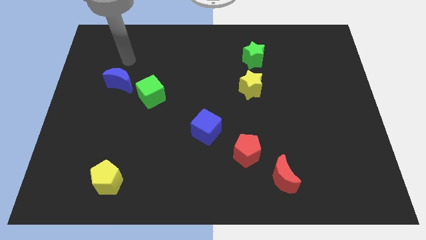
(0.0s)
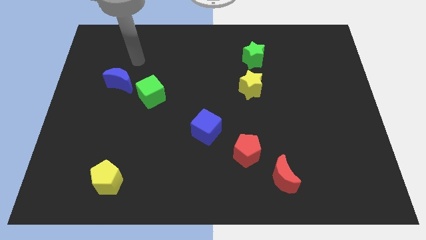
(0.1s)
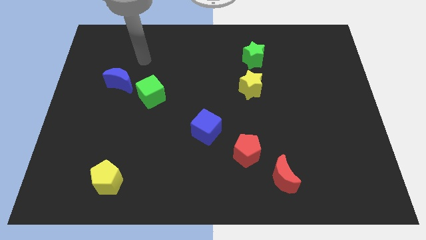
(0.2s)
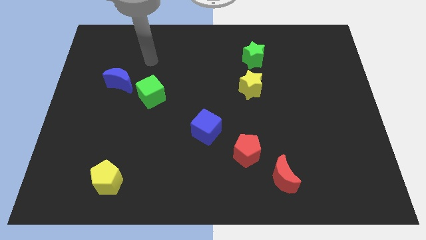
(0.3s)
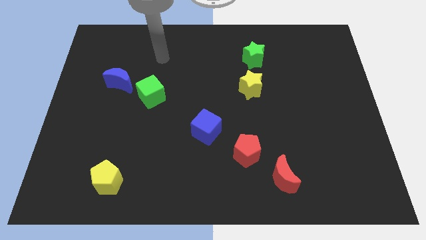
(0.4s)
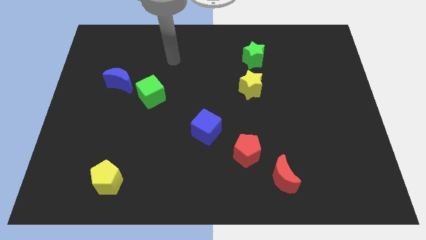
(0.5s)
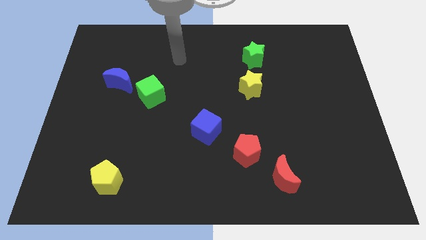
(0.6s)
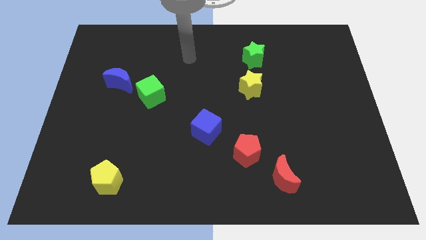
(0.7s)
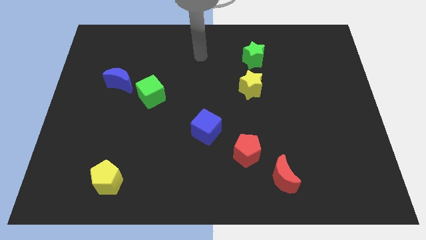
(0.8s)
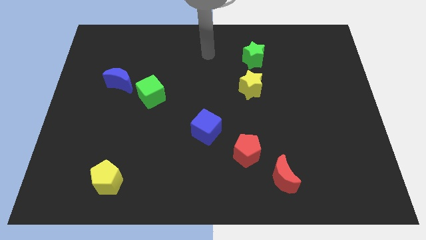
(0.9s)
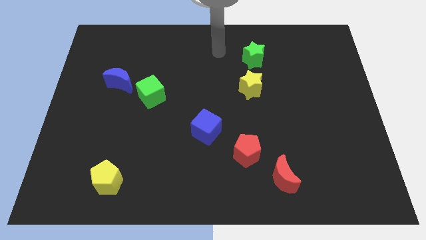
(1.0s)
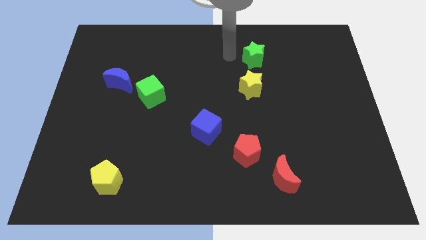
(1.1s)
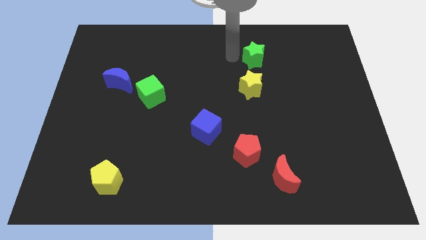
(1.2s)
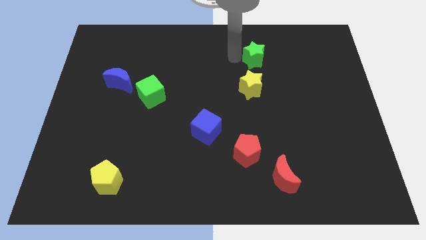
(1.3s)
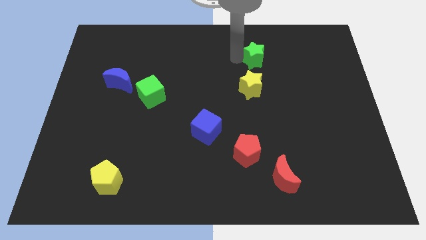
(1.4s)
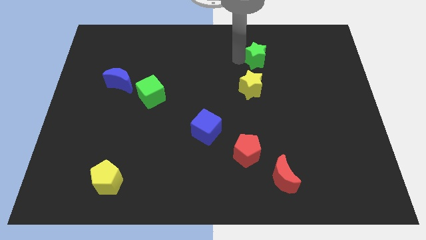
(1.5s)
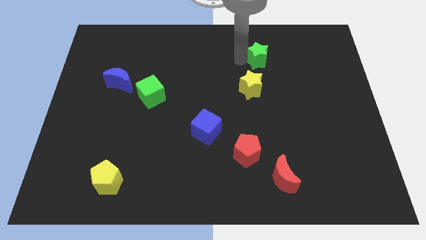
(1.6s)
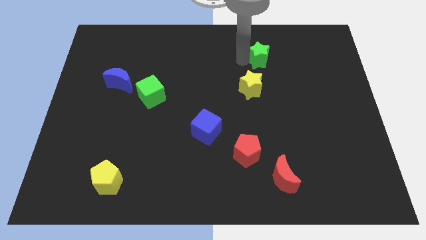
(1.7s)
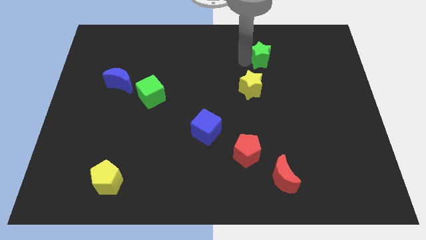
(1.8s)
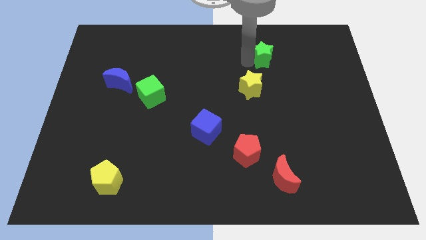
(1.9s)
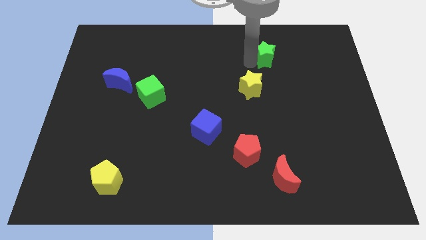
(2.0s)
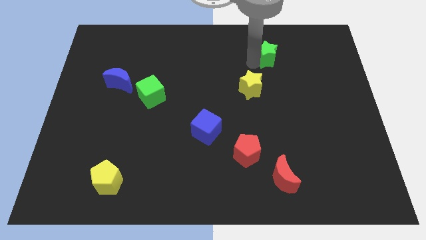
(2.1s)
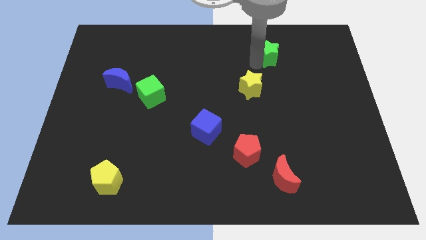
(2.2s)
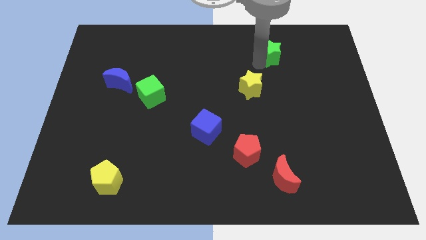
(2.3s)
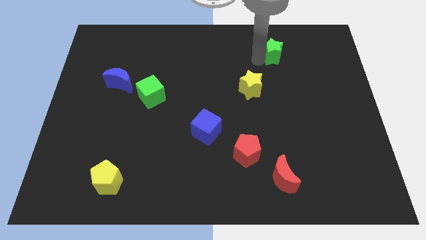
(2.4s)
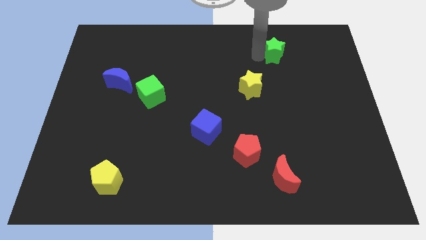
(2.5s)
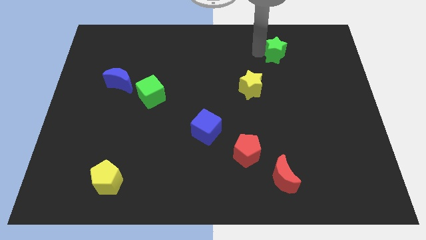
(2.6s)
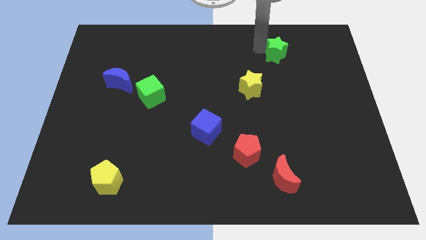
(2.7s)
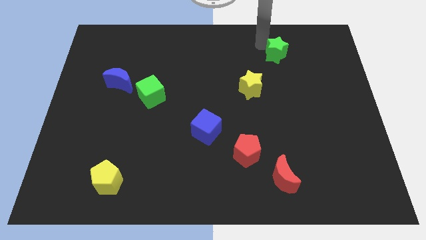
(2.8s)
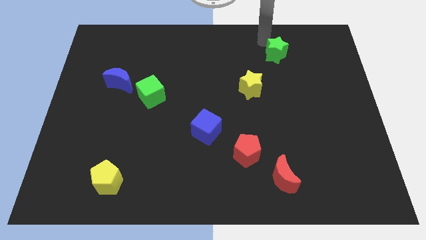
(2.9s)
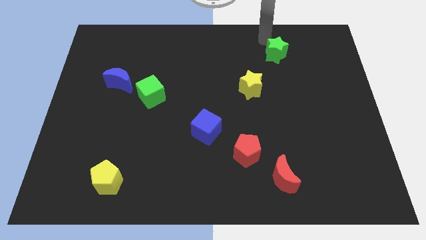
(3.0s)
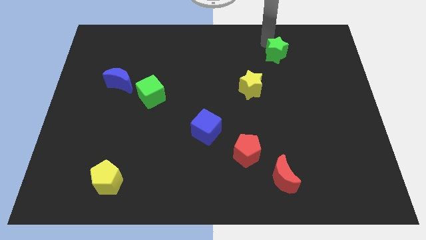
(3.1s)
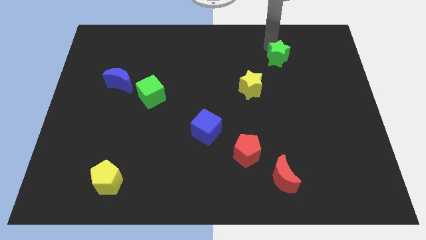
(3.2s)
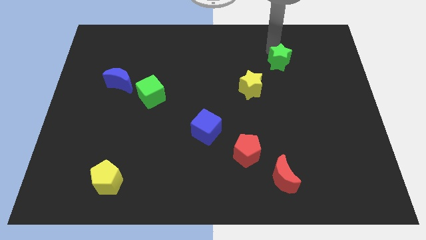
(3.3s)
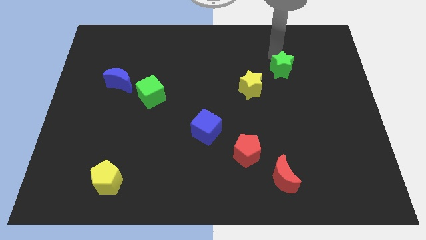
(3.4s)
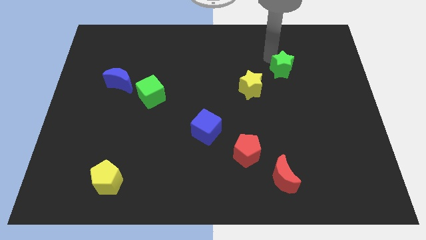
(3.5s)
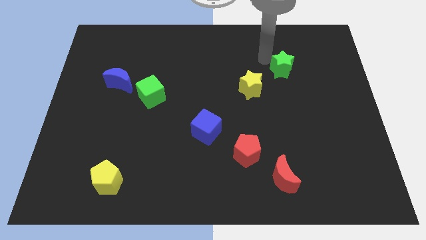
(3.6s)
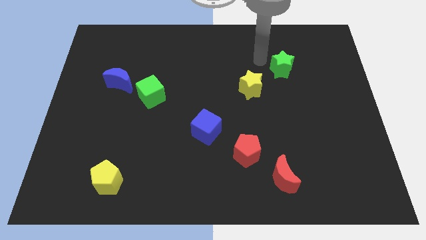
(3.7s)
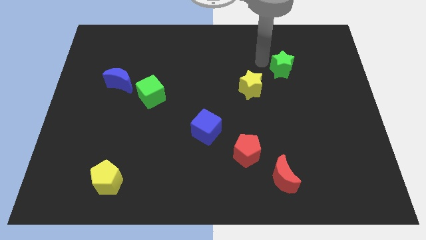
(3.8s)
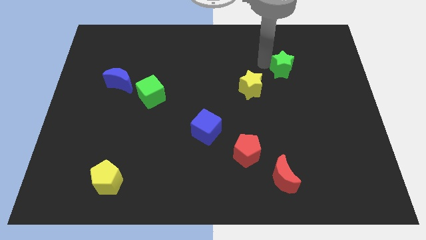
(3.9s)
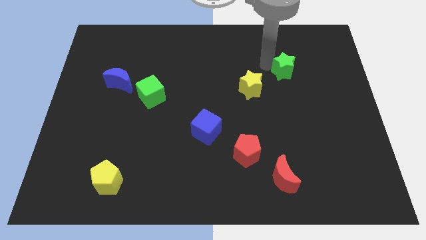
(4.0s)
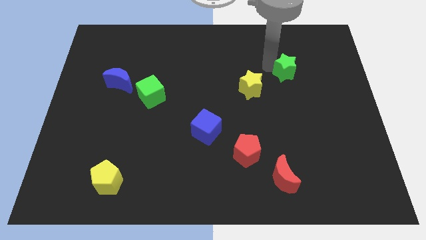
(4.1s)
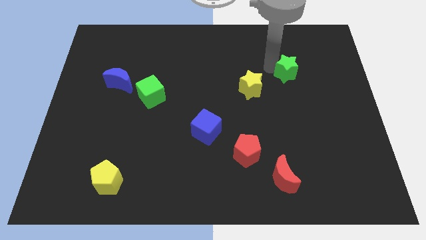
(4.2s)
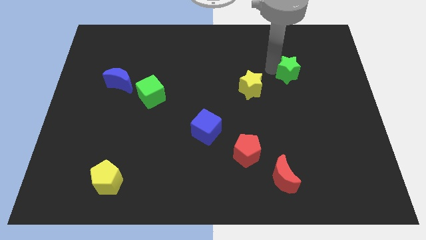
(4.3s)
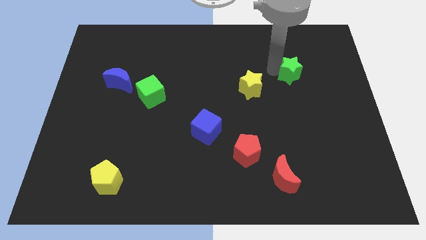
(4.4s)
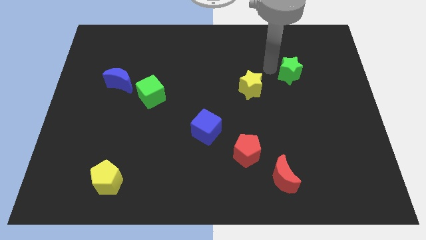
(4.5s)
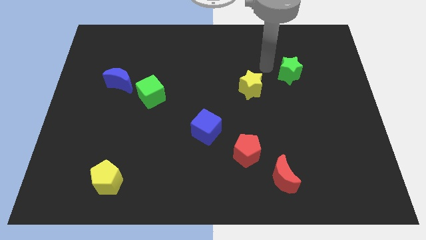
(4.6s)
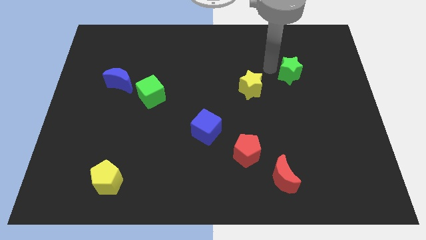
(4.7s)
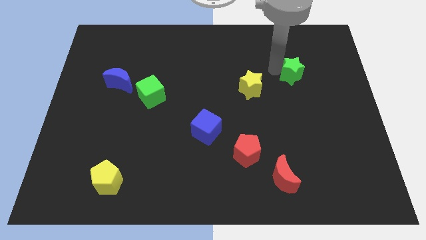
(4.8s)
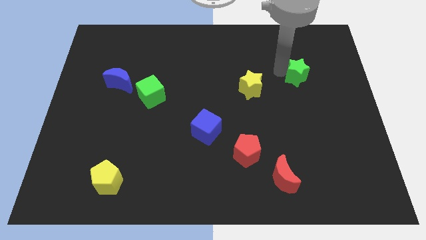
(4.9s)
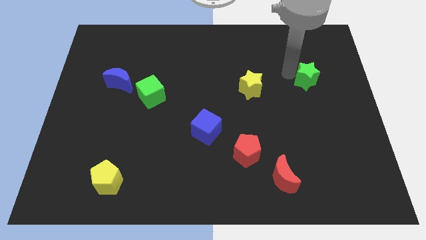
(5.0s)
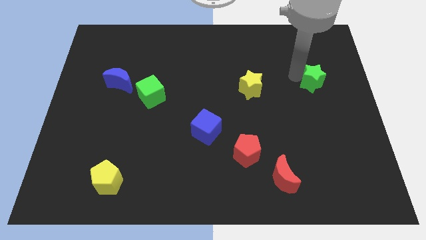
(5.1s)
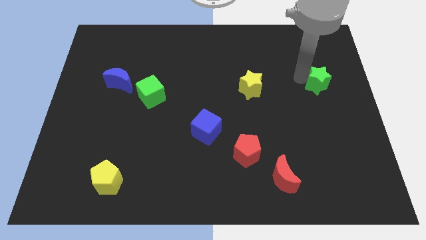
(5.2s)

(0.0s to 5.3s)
move the green star to the right side of the board

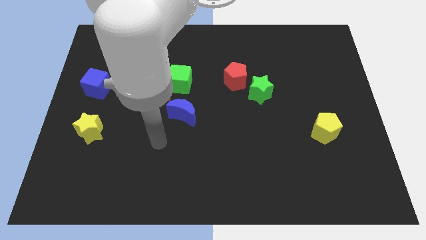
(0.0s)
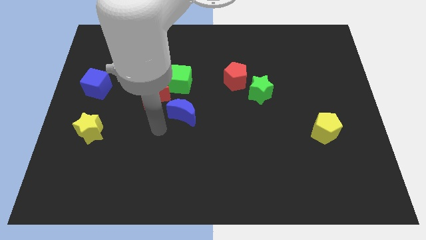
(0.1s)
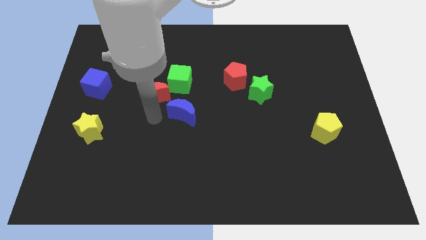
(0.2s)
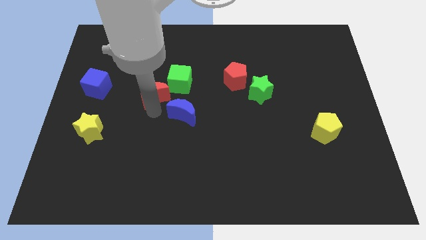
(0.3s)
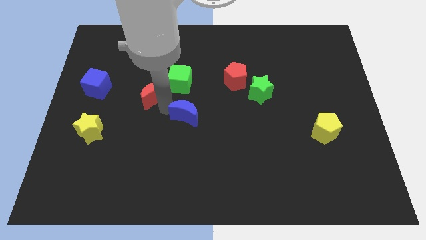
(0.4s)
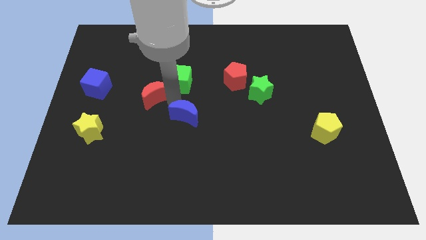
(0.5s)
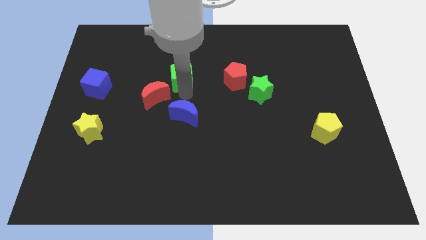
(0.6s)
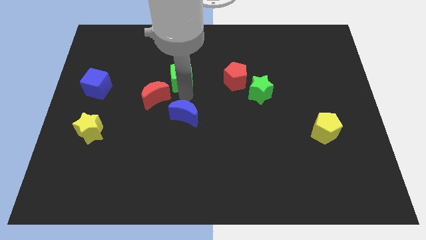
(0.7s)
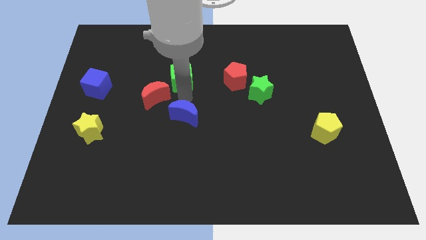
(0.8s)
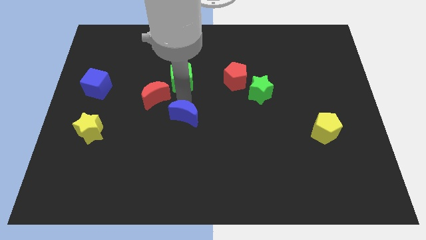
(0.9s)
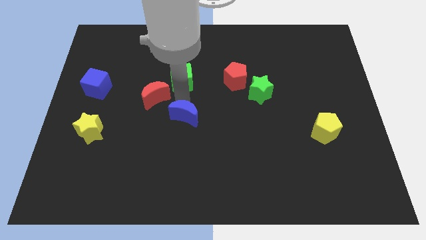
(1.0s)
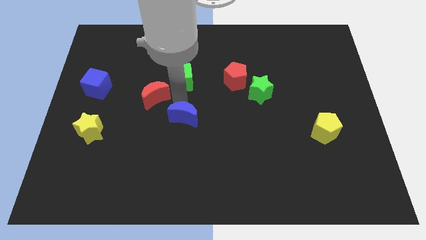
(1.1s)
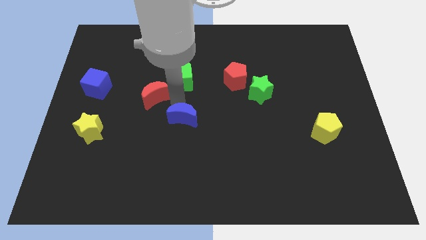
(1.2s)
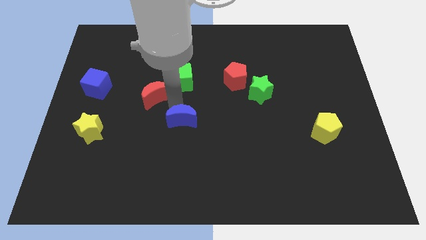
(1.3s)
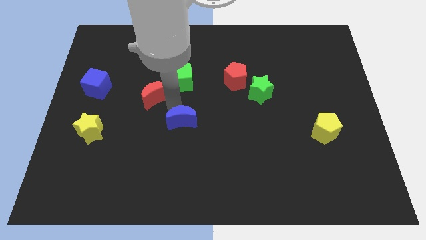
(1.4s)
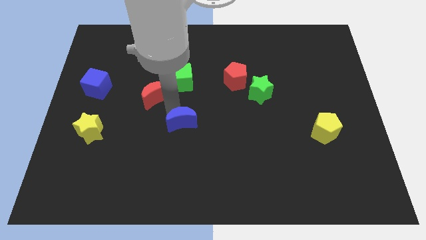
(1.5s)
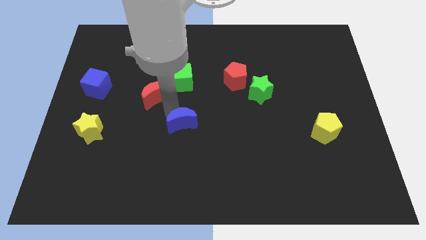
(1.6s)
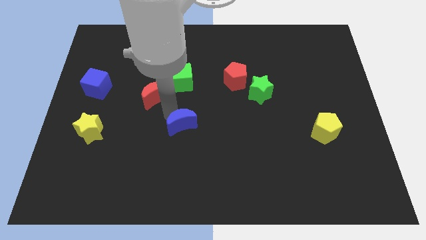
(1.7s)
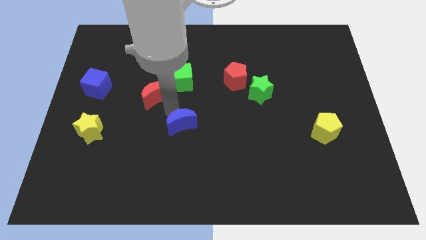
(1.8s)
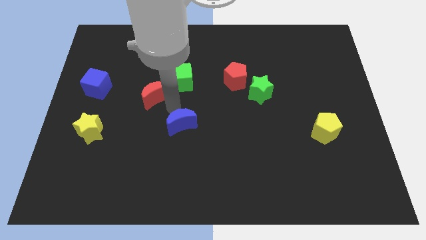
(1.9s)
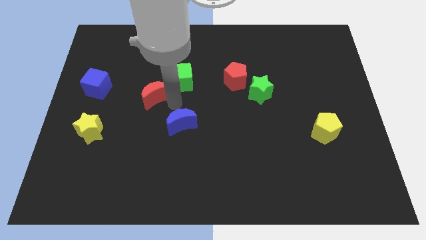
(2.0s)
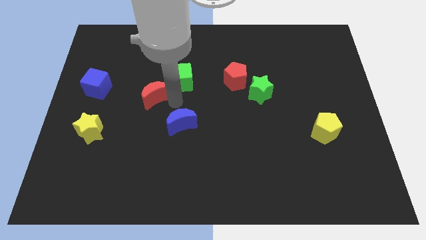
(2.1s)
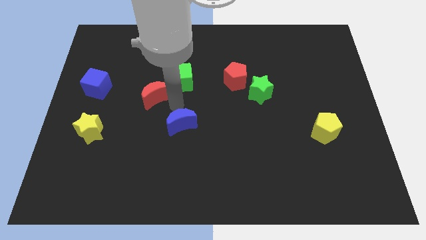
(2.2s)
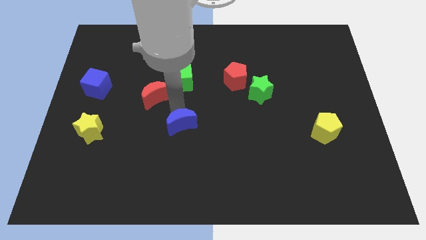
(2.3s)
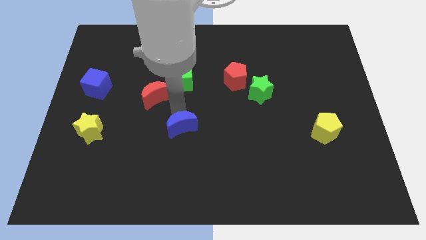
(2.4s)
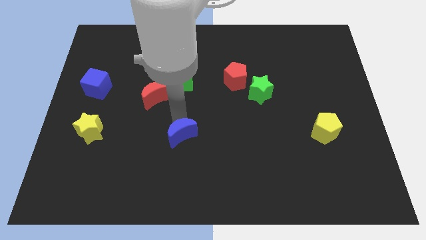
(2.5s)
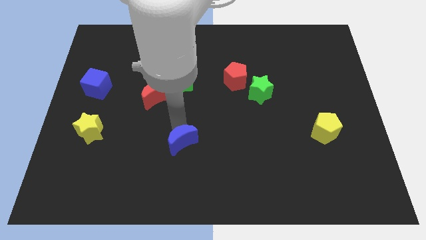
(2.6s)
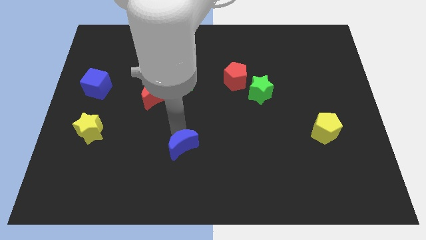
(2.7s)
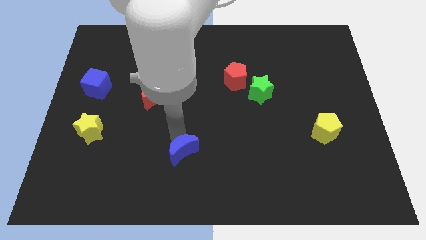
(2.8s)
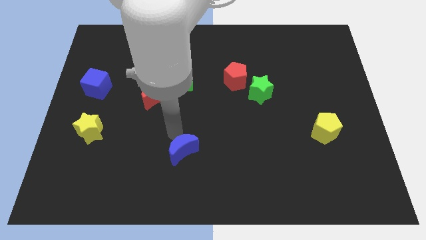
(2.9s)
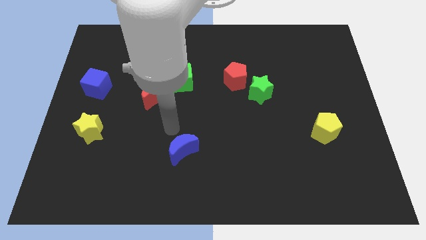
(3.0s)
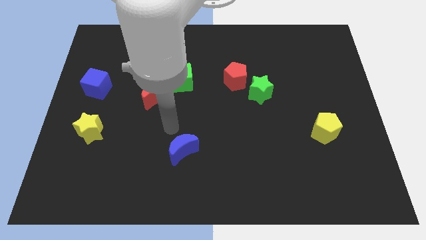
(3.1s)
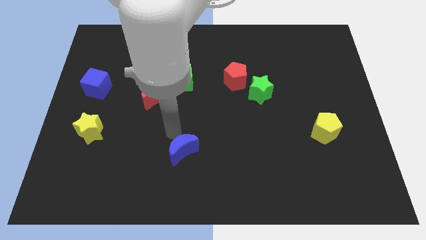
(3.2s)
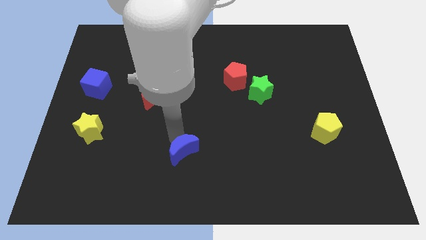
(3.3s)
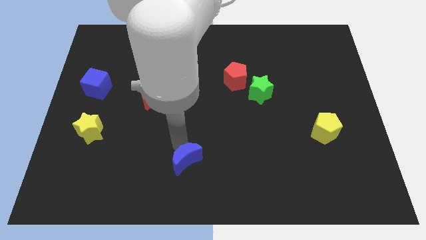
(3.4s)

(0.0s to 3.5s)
move the blue moon to the bottom
